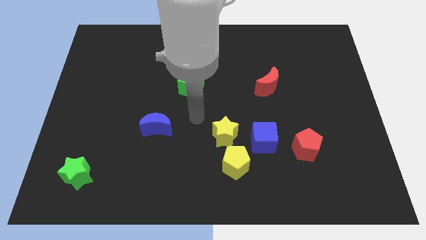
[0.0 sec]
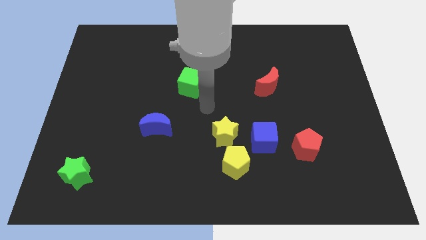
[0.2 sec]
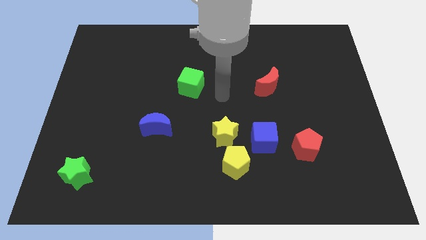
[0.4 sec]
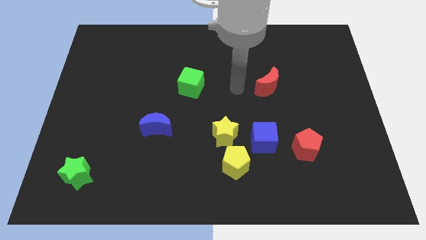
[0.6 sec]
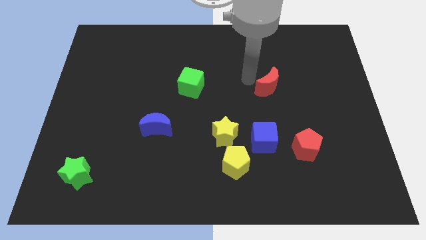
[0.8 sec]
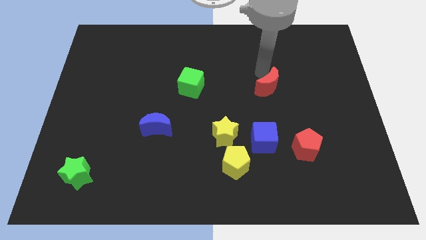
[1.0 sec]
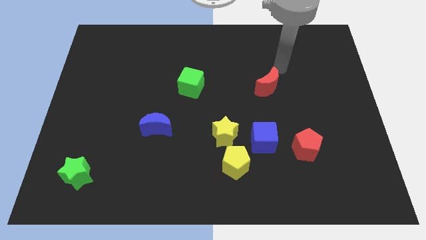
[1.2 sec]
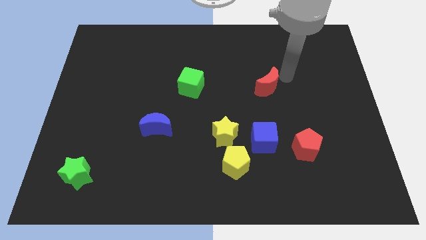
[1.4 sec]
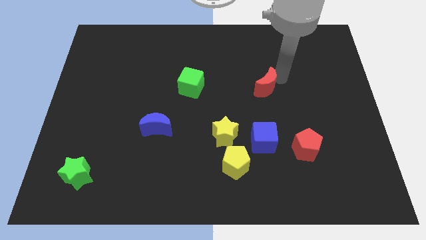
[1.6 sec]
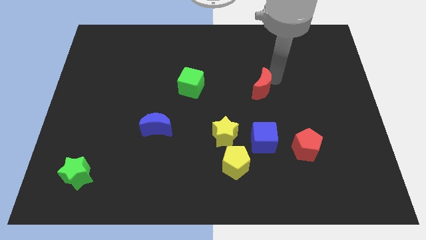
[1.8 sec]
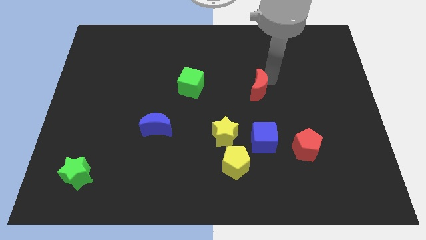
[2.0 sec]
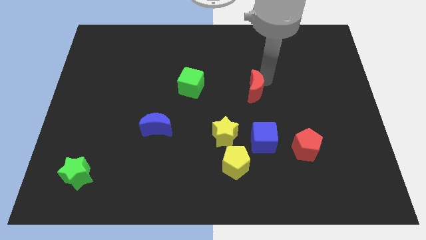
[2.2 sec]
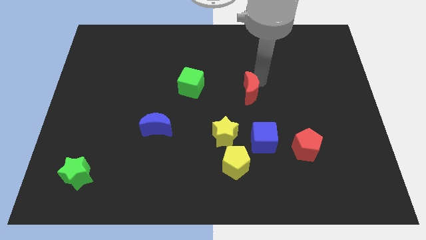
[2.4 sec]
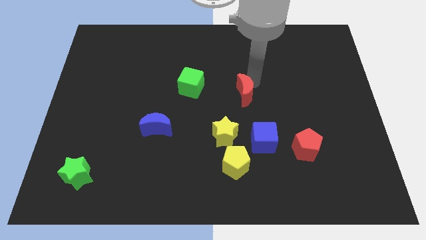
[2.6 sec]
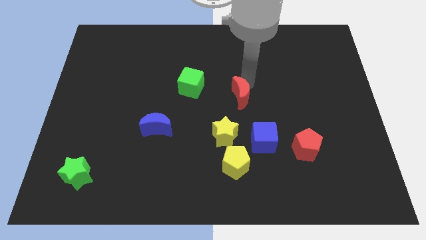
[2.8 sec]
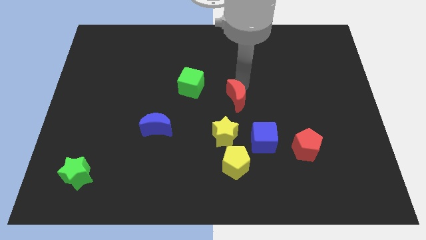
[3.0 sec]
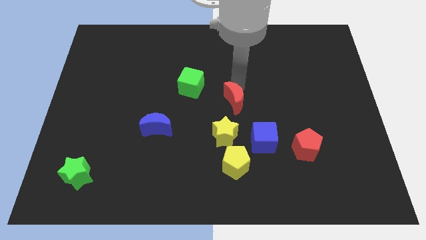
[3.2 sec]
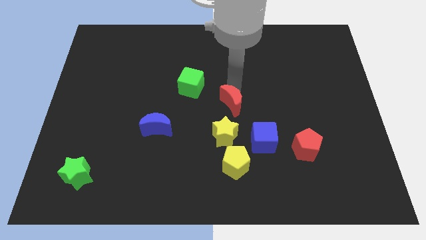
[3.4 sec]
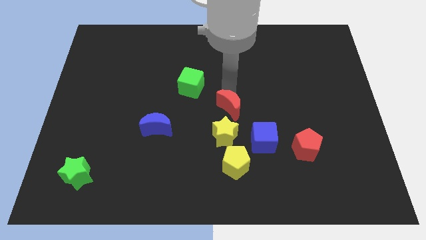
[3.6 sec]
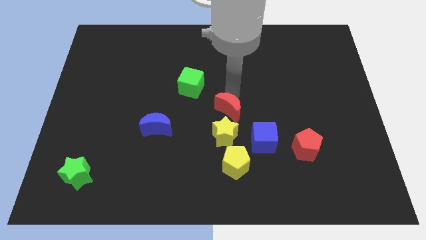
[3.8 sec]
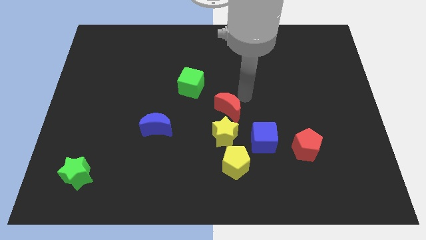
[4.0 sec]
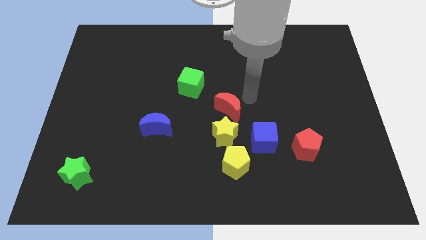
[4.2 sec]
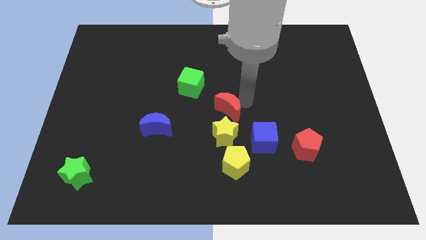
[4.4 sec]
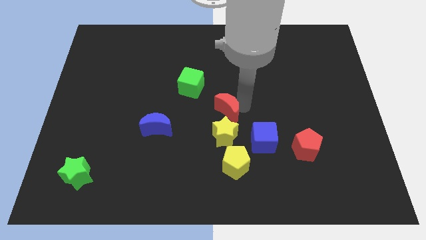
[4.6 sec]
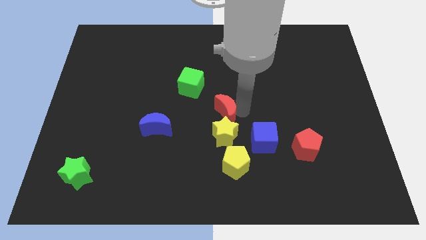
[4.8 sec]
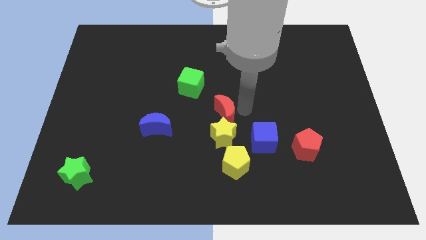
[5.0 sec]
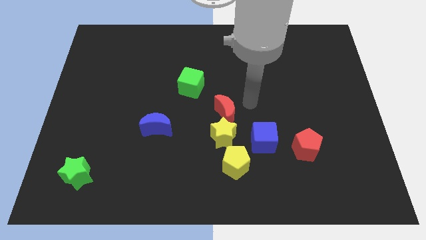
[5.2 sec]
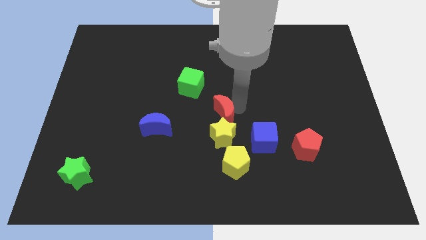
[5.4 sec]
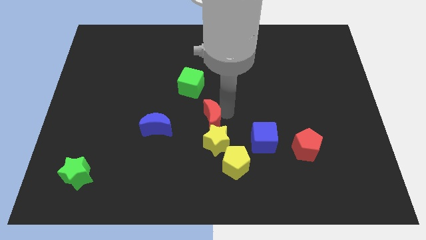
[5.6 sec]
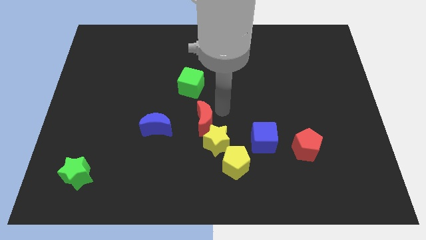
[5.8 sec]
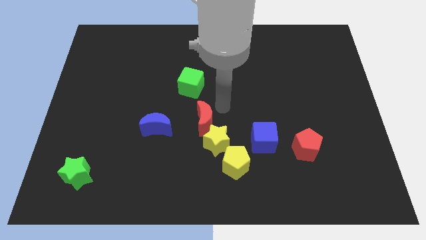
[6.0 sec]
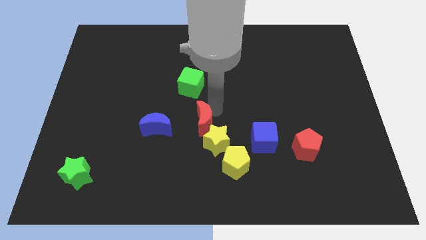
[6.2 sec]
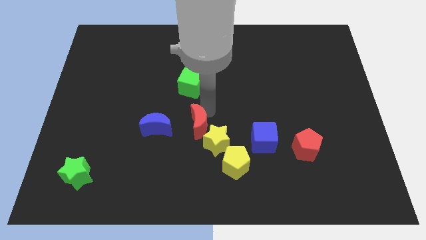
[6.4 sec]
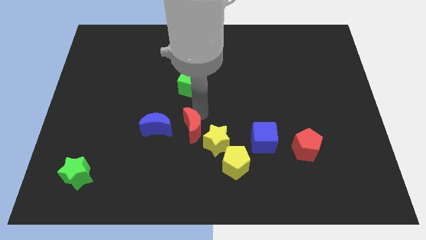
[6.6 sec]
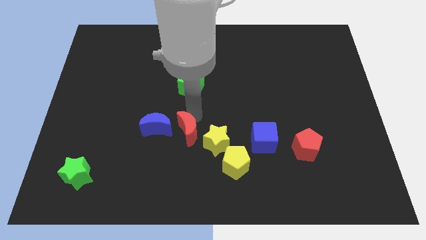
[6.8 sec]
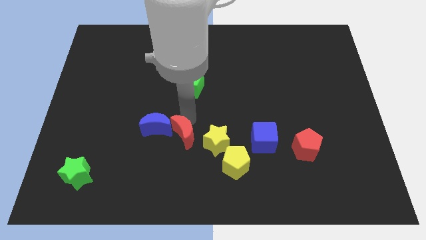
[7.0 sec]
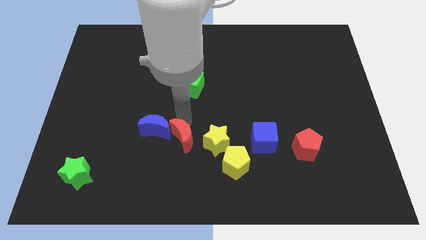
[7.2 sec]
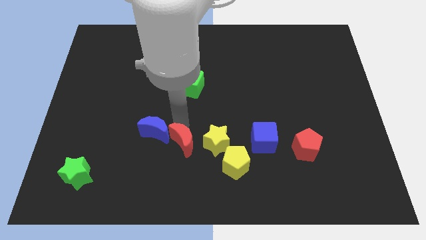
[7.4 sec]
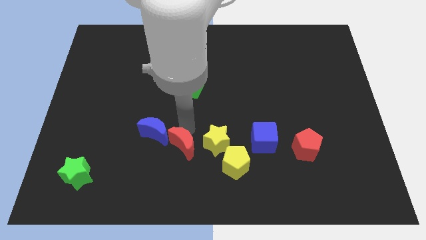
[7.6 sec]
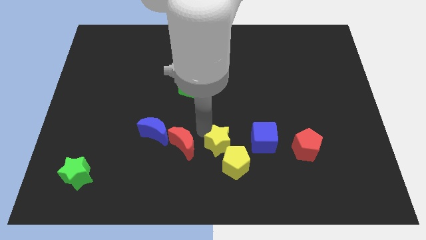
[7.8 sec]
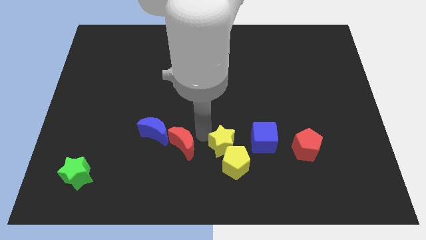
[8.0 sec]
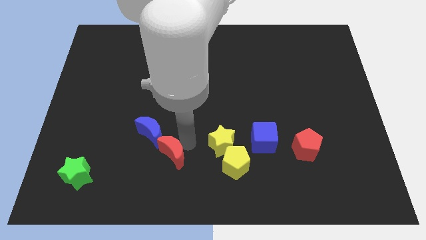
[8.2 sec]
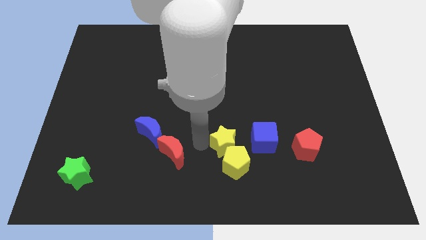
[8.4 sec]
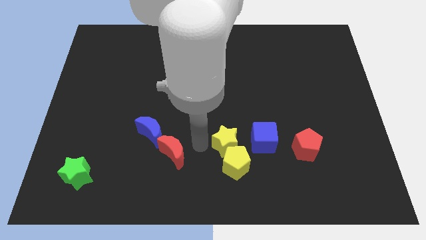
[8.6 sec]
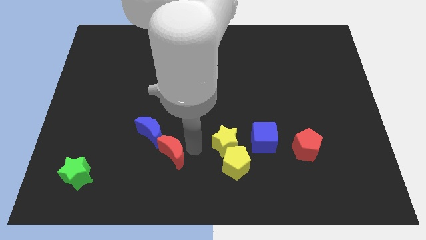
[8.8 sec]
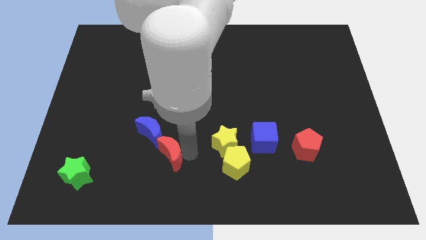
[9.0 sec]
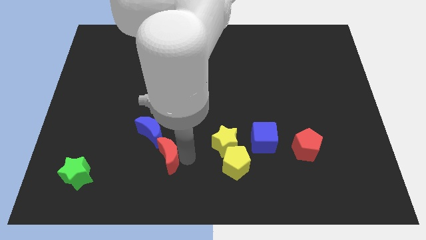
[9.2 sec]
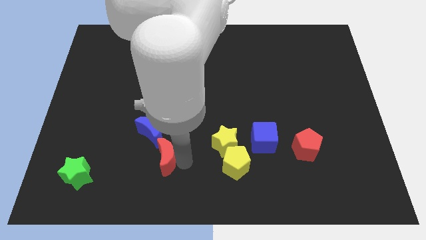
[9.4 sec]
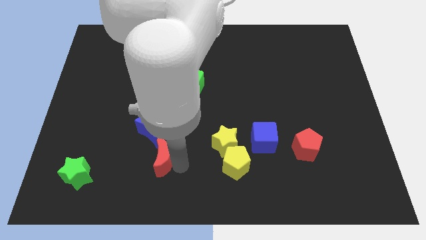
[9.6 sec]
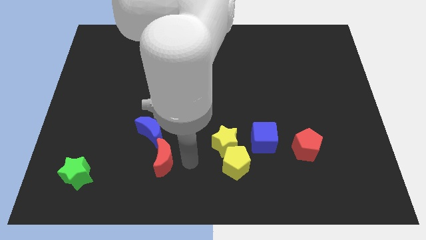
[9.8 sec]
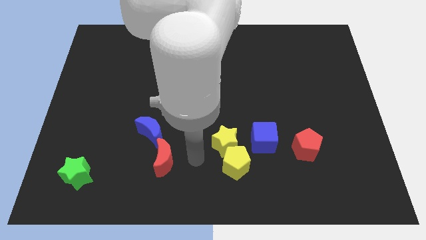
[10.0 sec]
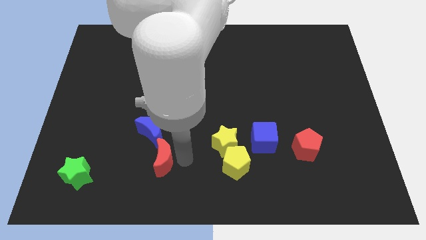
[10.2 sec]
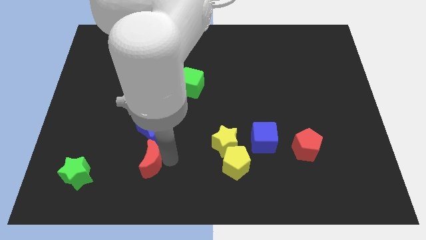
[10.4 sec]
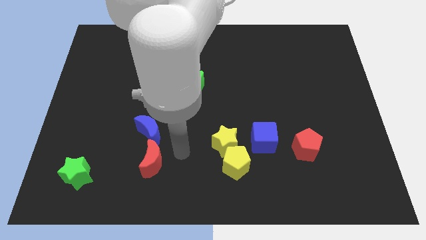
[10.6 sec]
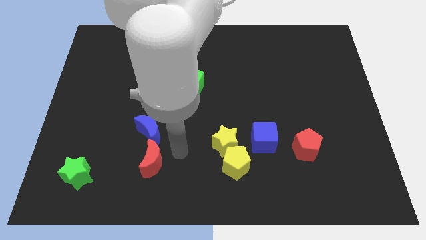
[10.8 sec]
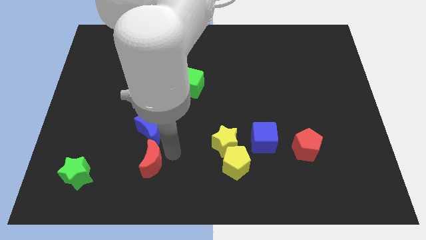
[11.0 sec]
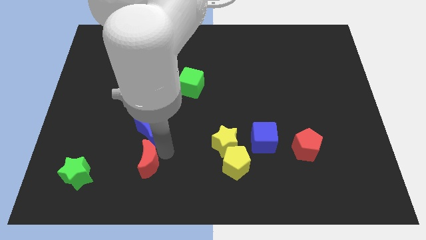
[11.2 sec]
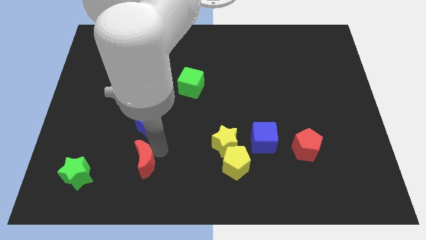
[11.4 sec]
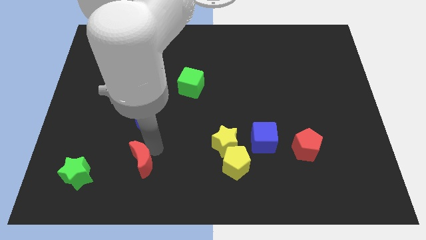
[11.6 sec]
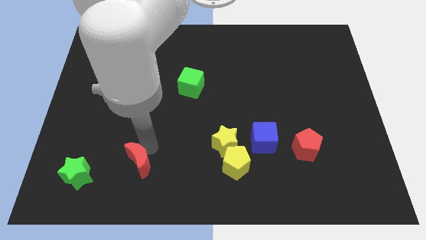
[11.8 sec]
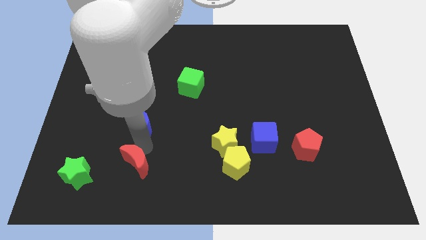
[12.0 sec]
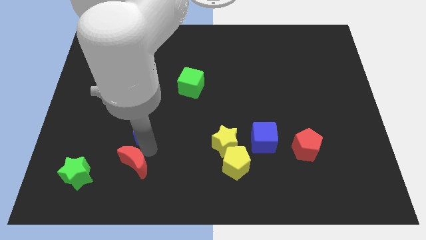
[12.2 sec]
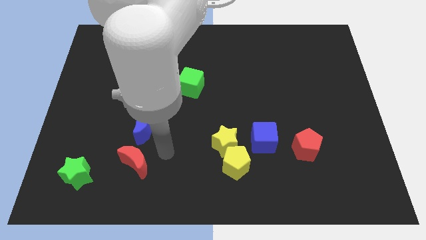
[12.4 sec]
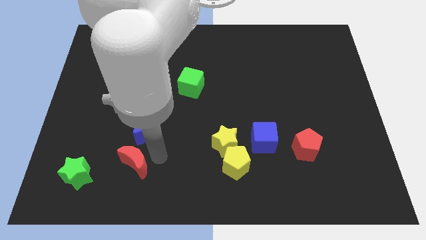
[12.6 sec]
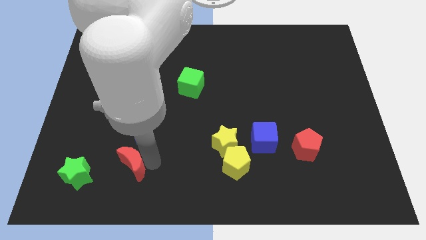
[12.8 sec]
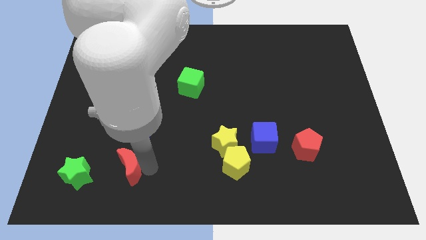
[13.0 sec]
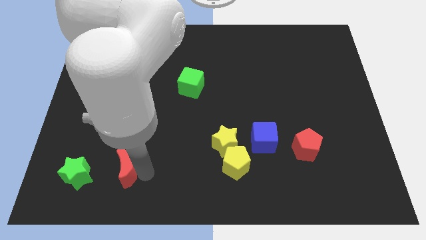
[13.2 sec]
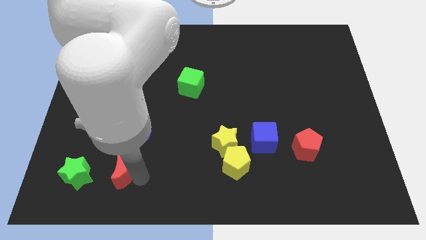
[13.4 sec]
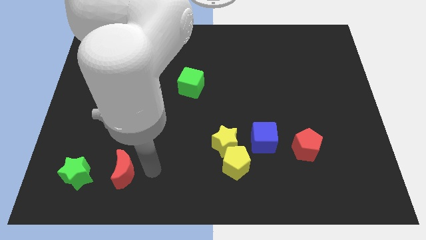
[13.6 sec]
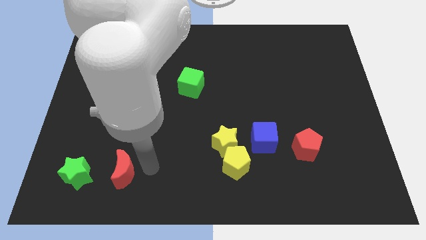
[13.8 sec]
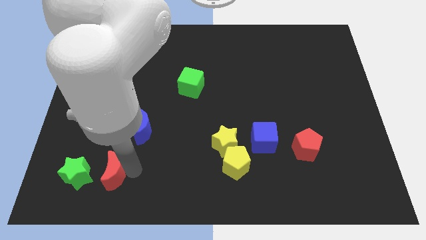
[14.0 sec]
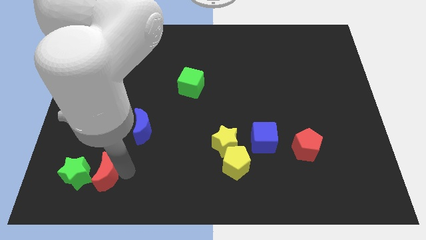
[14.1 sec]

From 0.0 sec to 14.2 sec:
put the red moon next to the green star

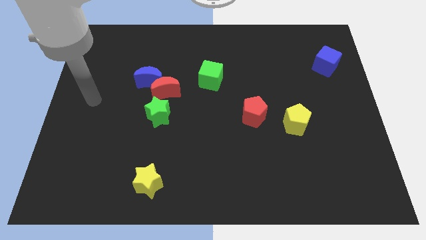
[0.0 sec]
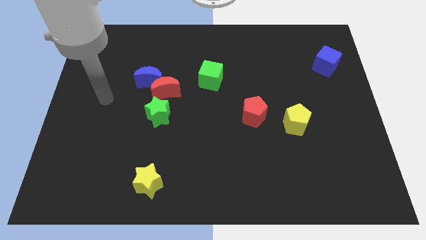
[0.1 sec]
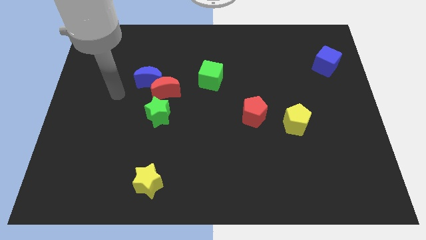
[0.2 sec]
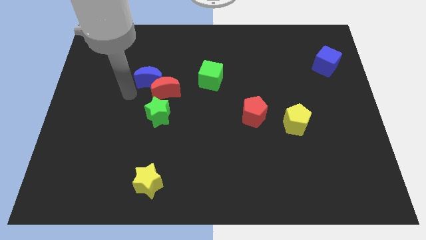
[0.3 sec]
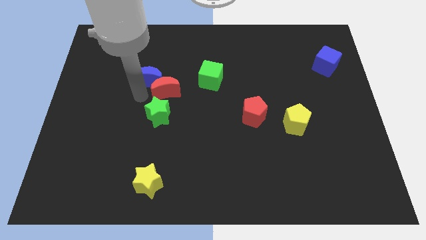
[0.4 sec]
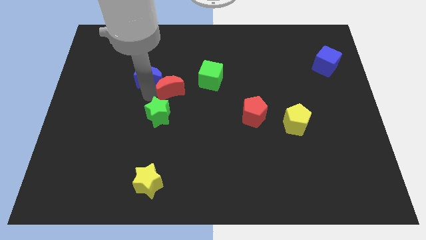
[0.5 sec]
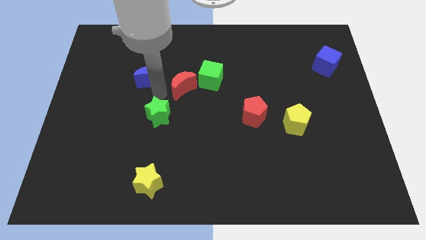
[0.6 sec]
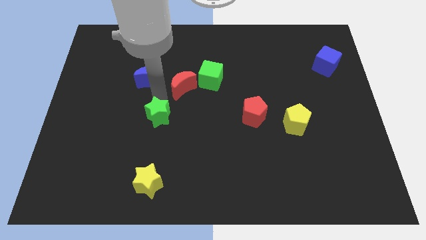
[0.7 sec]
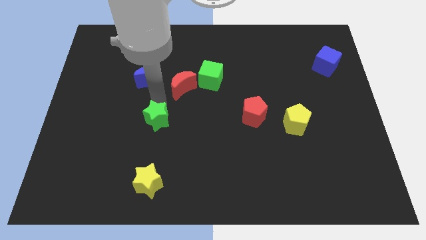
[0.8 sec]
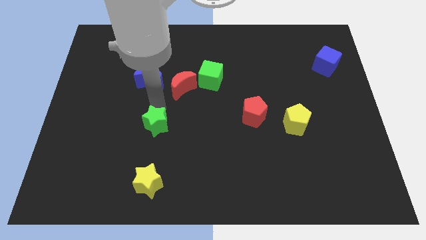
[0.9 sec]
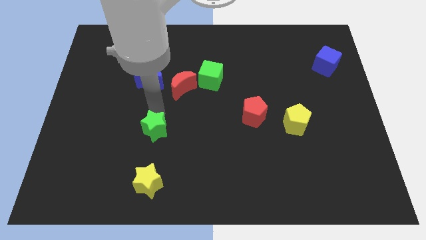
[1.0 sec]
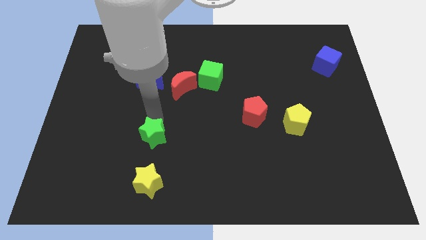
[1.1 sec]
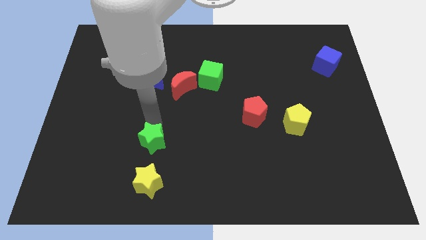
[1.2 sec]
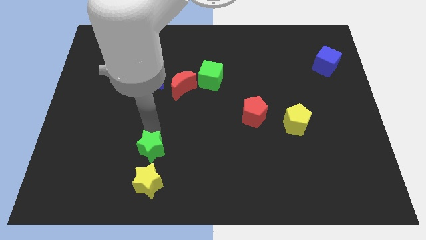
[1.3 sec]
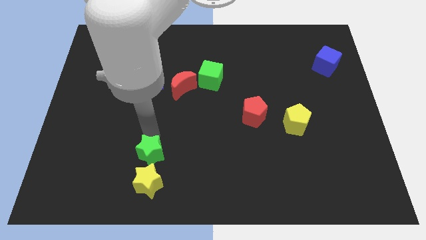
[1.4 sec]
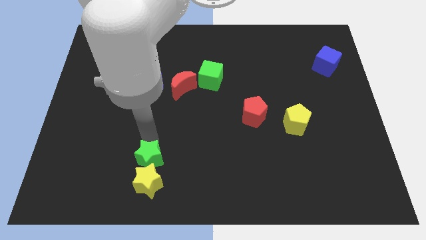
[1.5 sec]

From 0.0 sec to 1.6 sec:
slide the green star close to the yellow star
